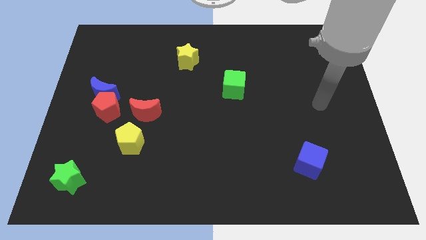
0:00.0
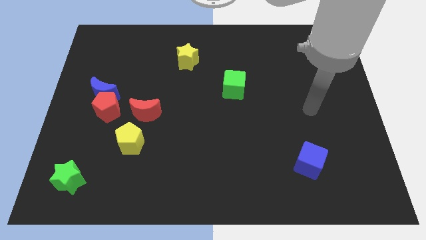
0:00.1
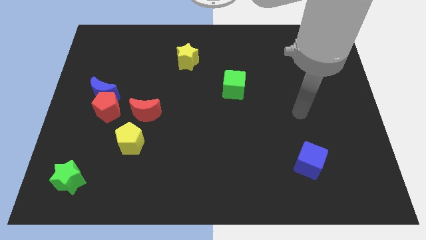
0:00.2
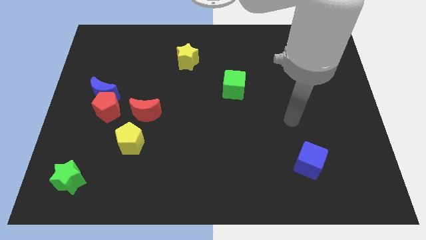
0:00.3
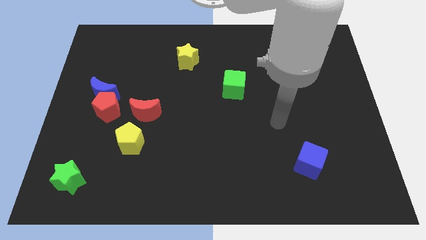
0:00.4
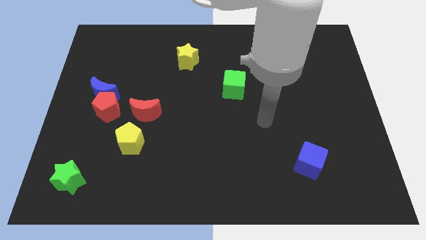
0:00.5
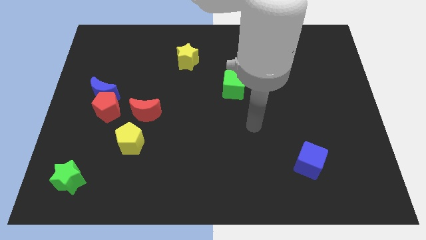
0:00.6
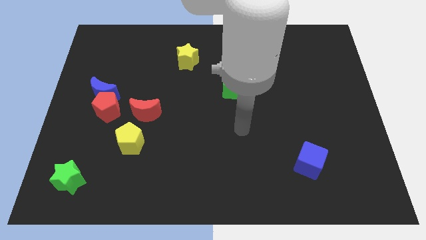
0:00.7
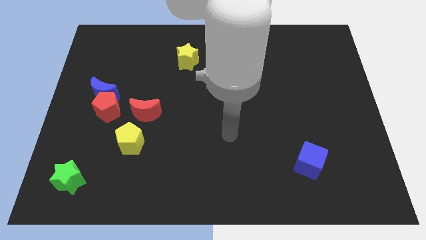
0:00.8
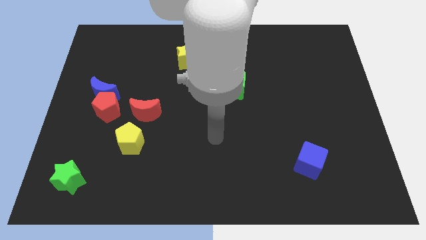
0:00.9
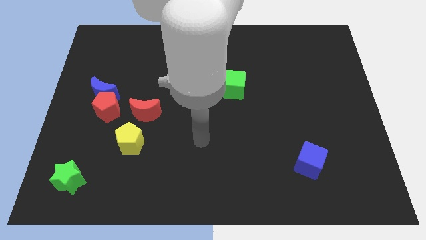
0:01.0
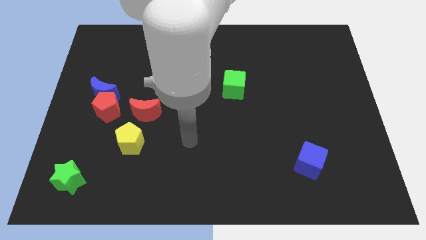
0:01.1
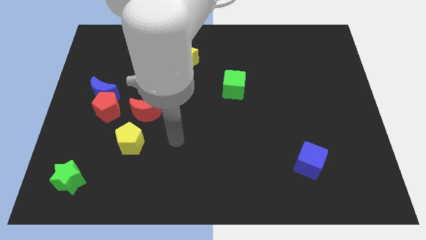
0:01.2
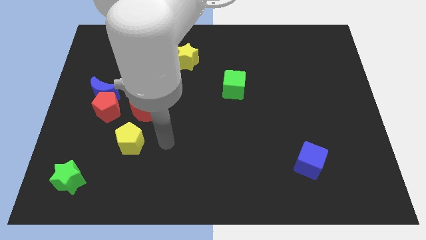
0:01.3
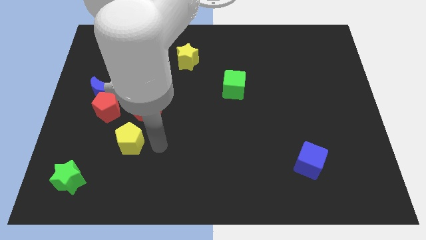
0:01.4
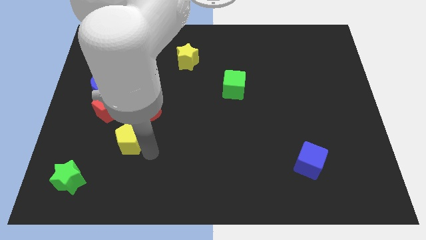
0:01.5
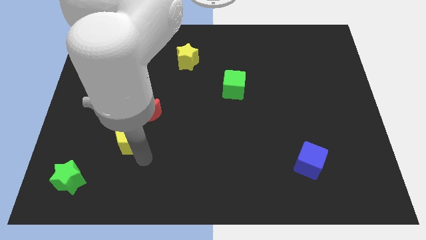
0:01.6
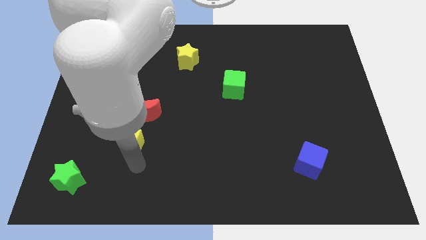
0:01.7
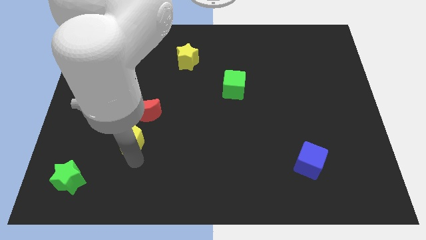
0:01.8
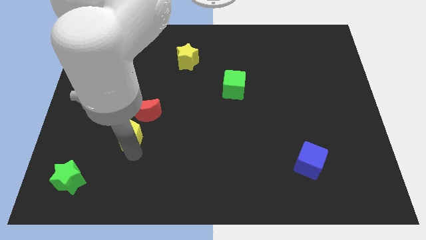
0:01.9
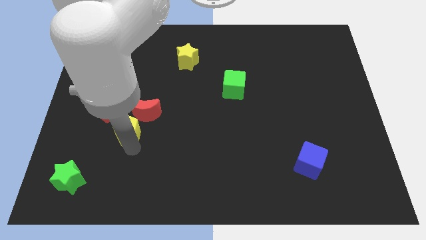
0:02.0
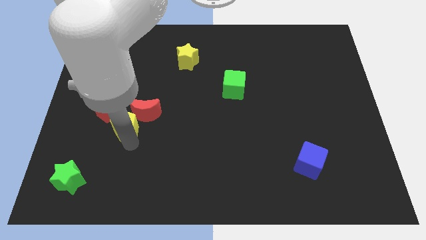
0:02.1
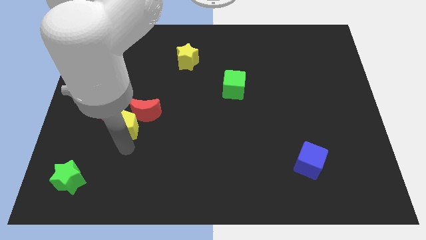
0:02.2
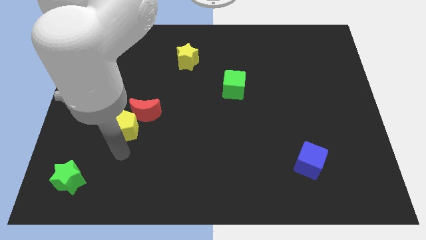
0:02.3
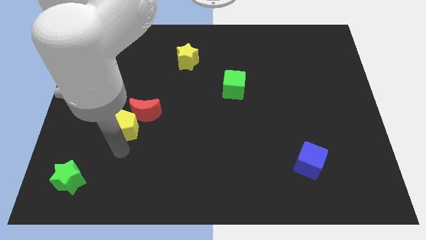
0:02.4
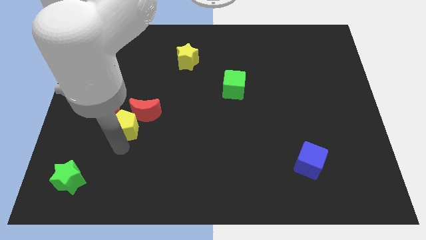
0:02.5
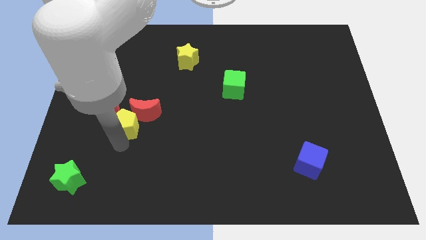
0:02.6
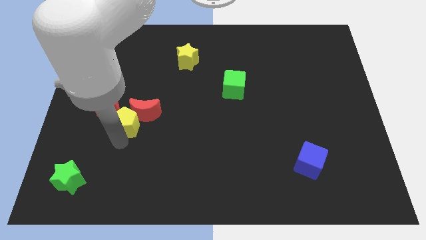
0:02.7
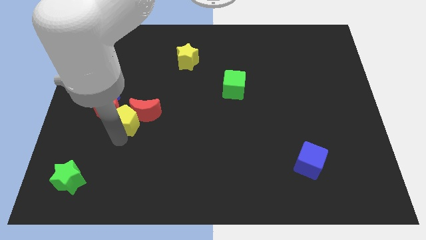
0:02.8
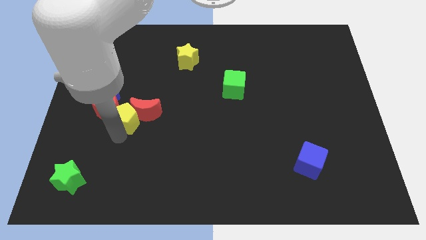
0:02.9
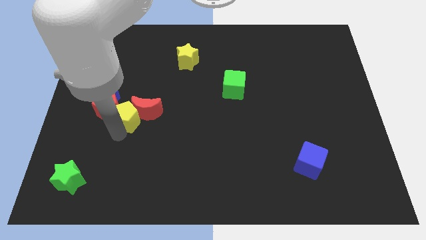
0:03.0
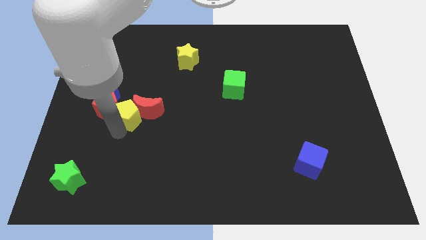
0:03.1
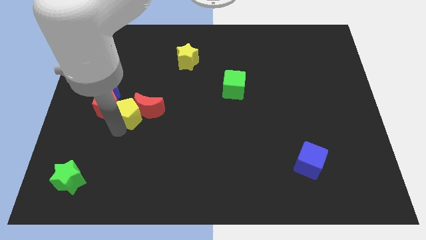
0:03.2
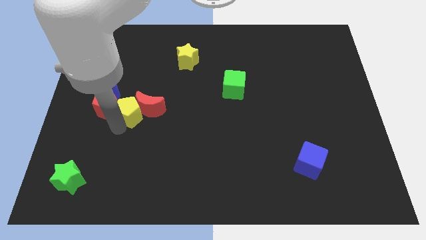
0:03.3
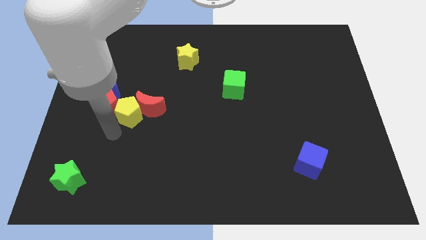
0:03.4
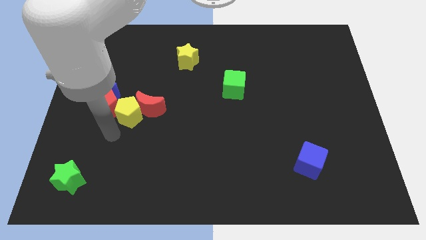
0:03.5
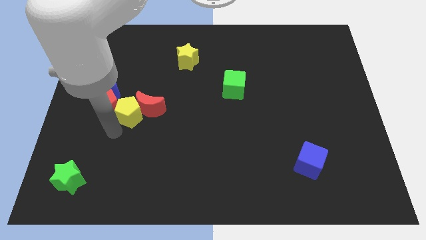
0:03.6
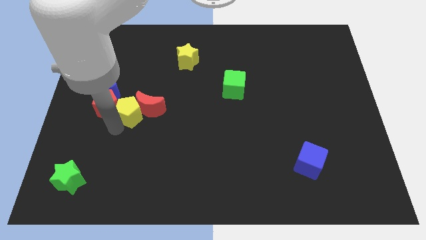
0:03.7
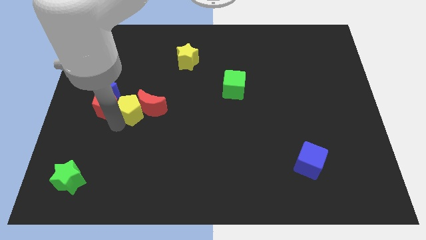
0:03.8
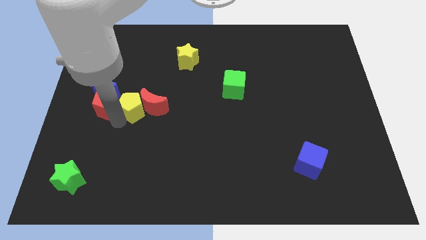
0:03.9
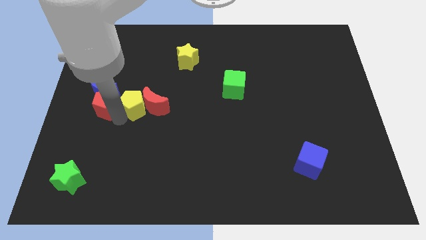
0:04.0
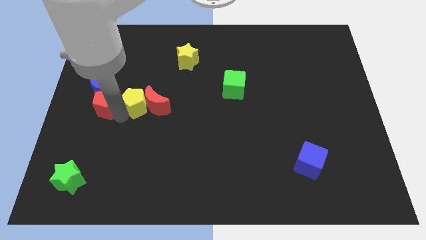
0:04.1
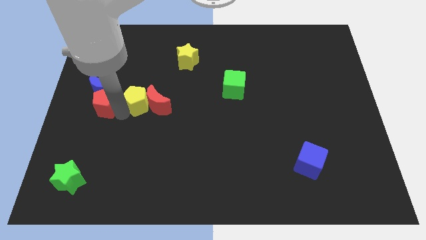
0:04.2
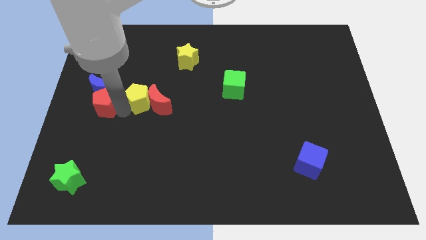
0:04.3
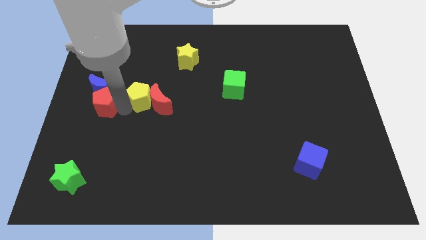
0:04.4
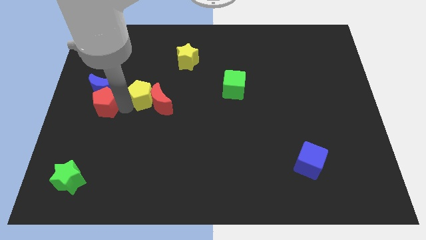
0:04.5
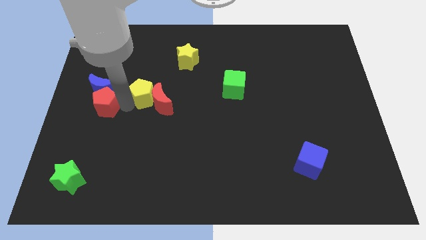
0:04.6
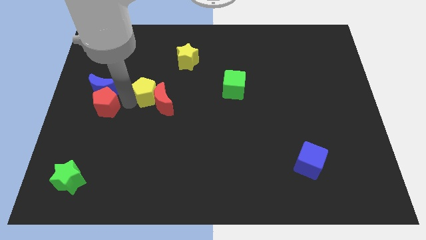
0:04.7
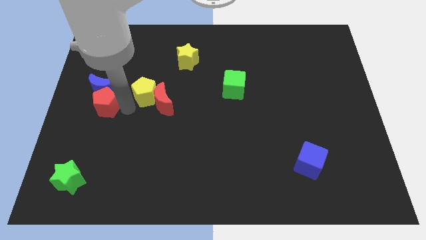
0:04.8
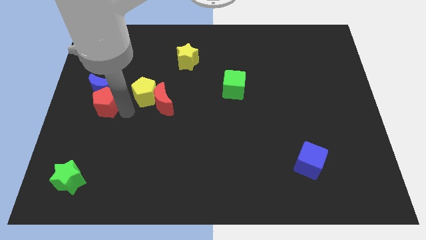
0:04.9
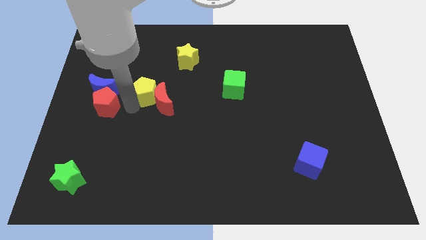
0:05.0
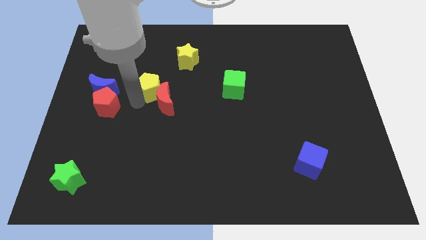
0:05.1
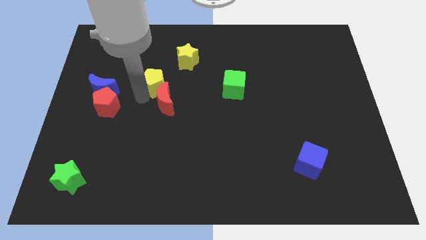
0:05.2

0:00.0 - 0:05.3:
move the yellow pentagon to the bottom left side of the yellow star

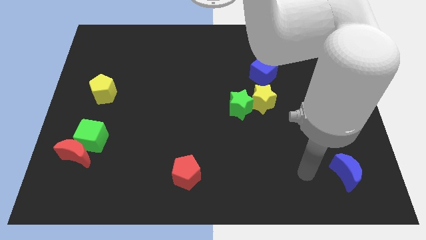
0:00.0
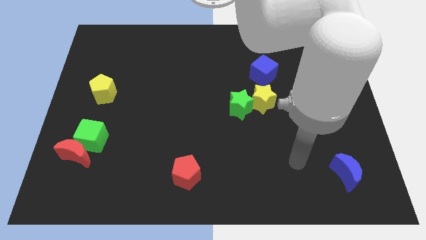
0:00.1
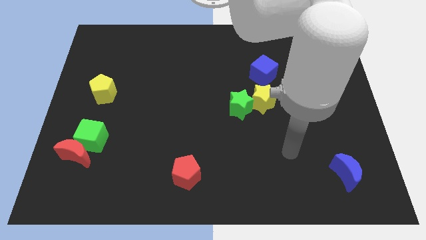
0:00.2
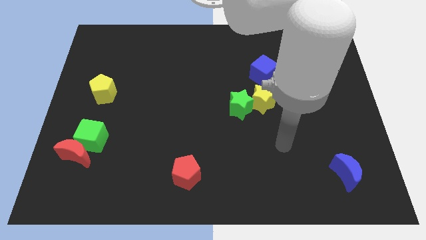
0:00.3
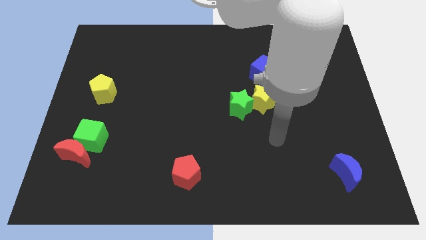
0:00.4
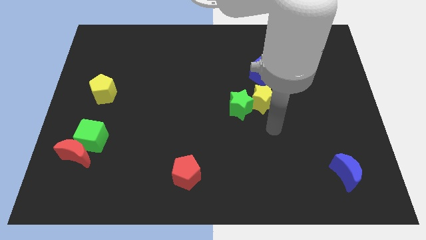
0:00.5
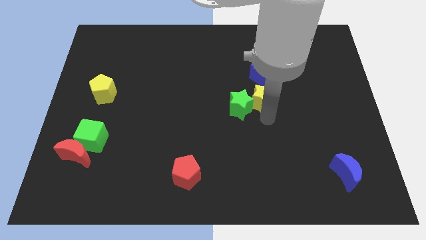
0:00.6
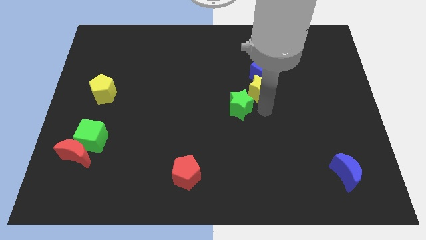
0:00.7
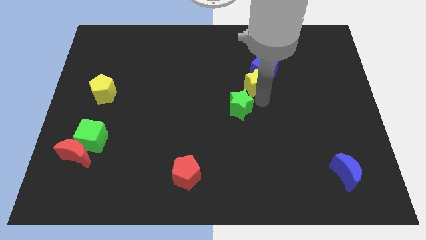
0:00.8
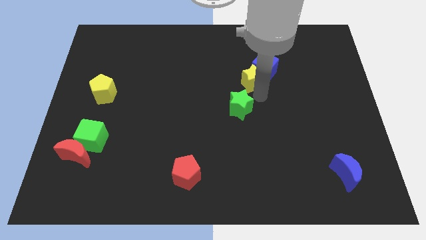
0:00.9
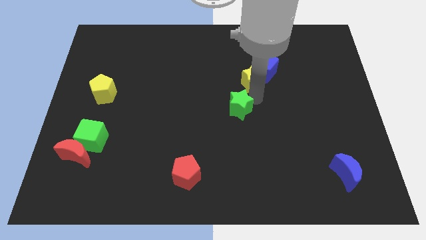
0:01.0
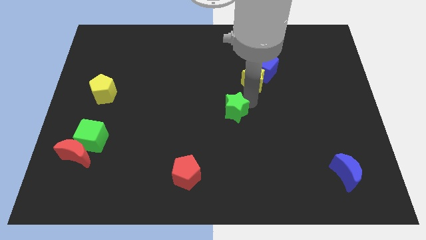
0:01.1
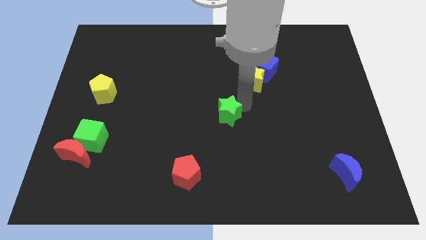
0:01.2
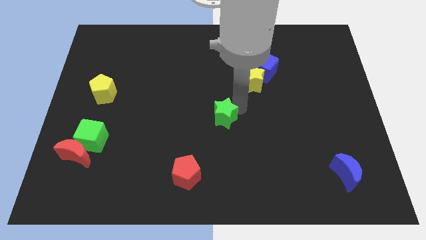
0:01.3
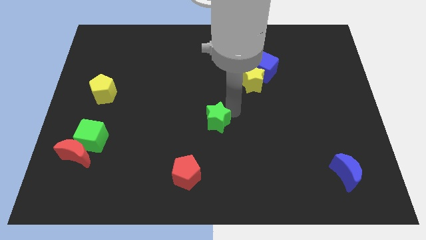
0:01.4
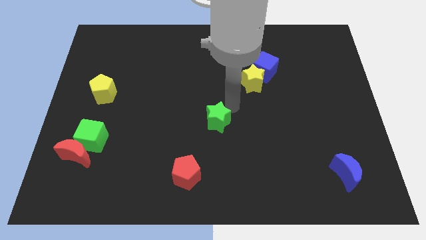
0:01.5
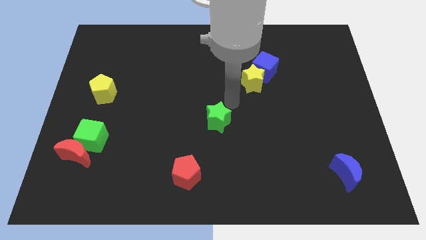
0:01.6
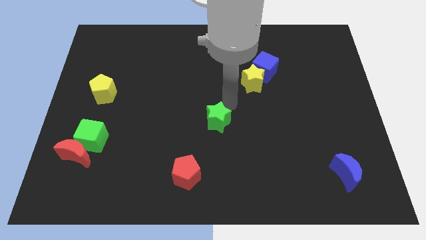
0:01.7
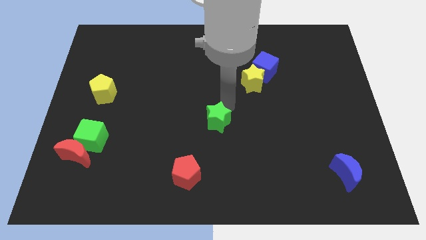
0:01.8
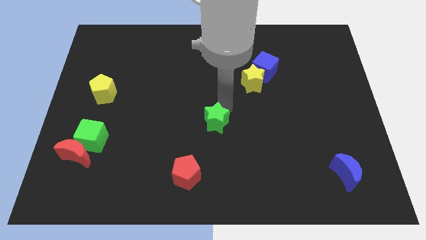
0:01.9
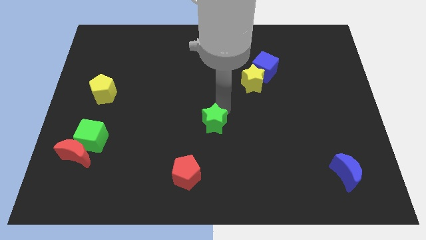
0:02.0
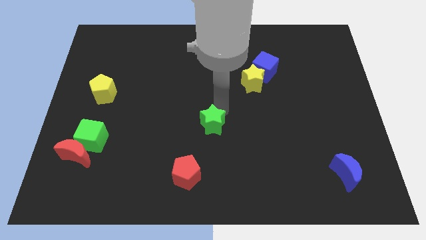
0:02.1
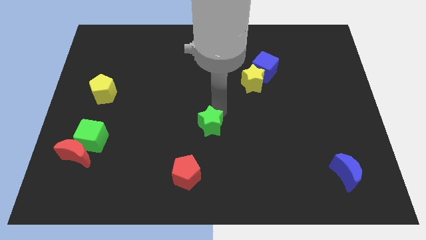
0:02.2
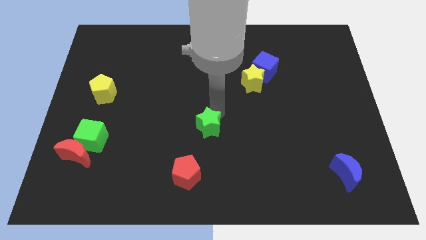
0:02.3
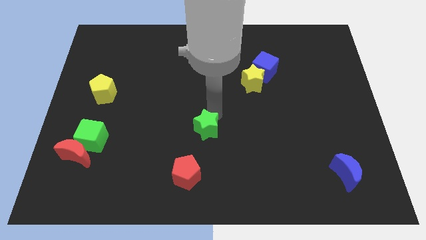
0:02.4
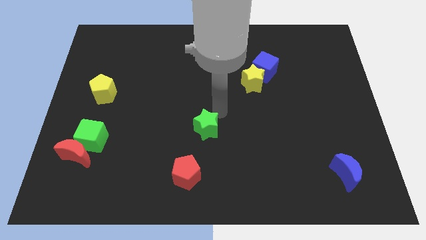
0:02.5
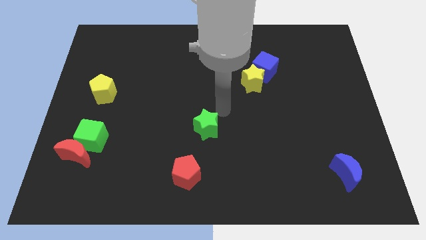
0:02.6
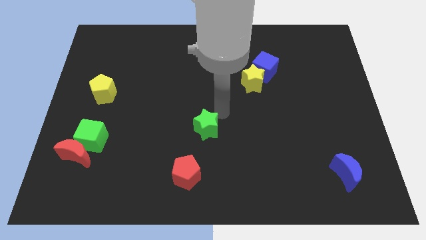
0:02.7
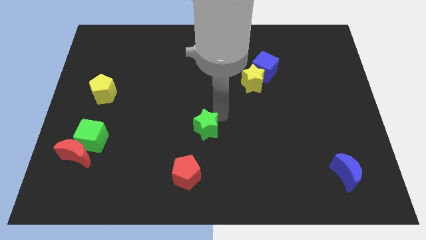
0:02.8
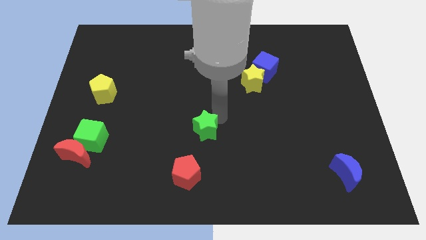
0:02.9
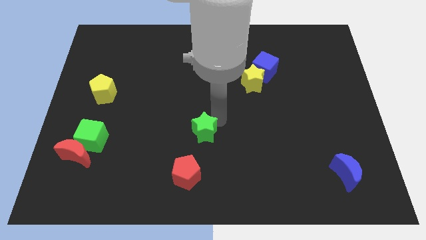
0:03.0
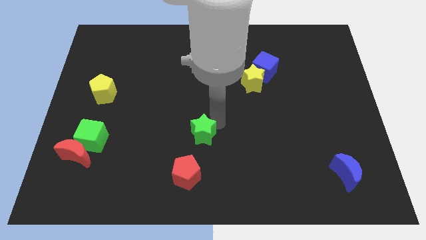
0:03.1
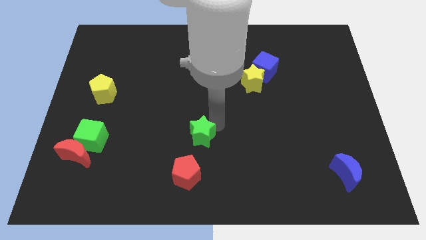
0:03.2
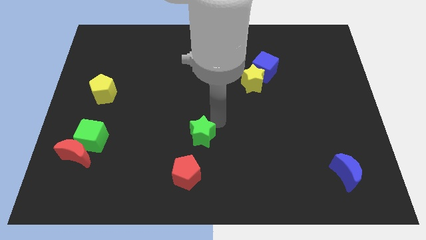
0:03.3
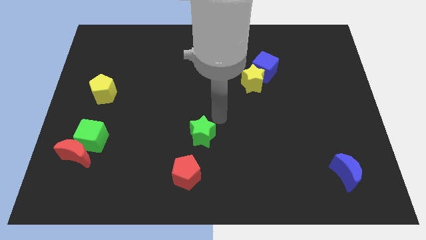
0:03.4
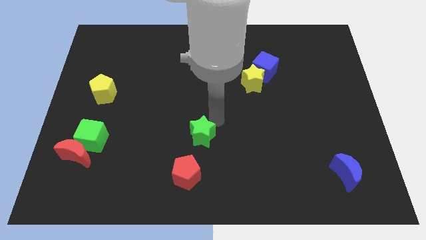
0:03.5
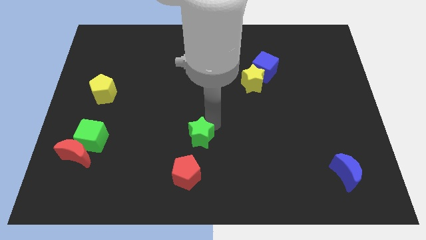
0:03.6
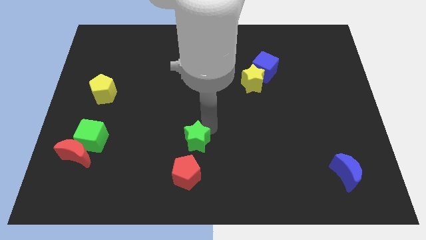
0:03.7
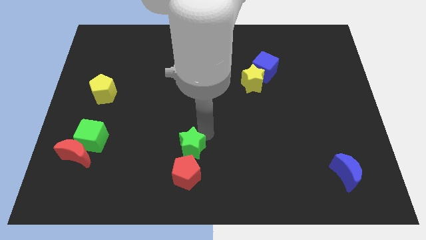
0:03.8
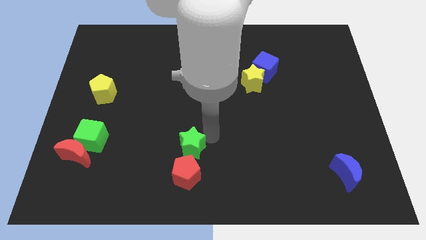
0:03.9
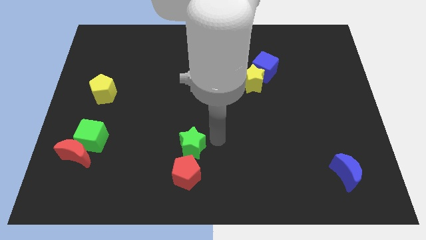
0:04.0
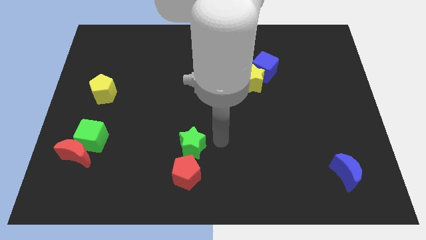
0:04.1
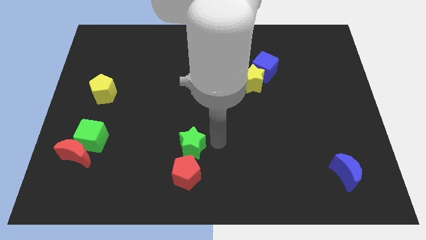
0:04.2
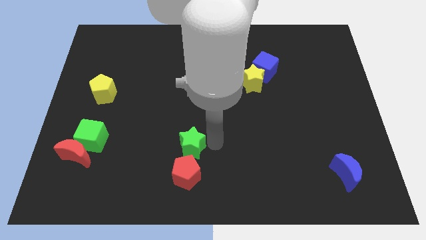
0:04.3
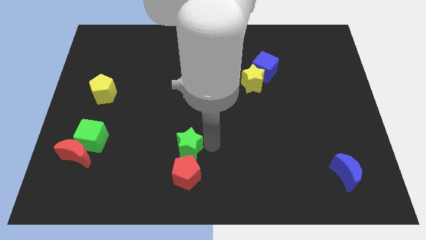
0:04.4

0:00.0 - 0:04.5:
put the green star to the top left of the red pentagon
